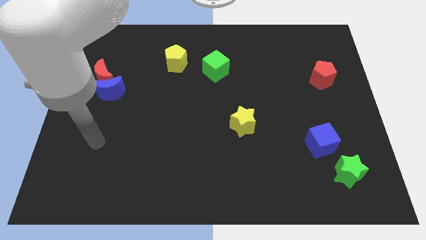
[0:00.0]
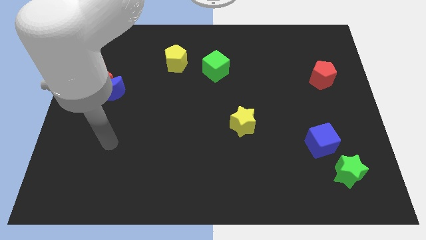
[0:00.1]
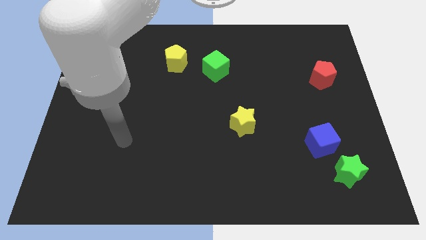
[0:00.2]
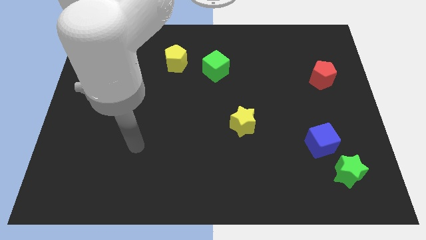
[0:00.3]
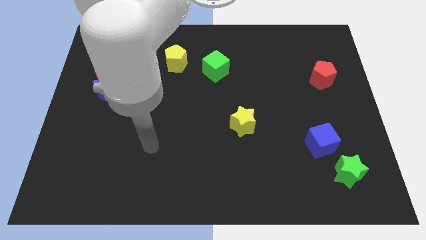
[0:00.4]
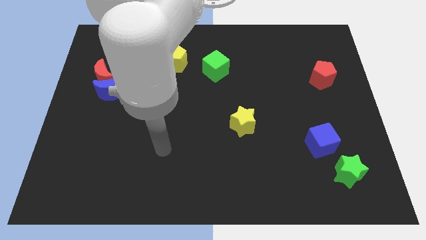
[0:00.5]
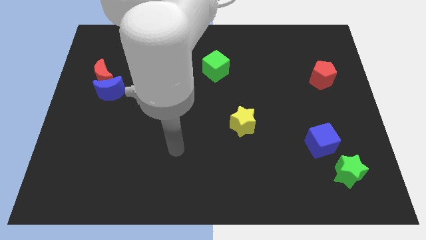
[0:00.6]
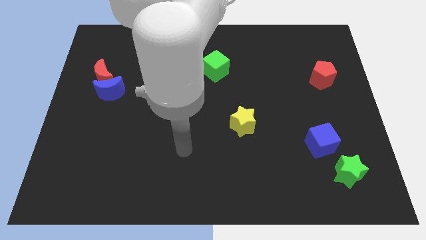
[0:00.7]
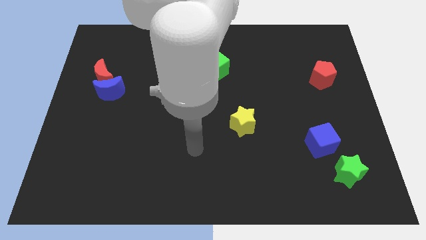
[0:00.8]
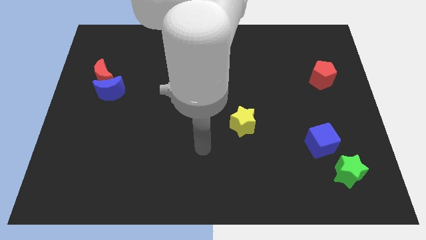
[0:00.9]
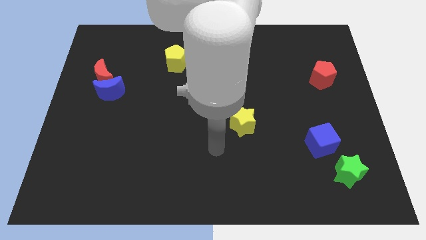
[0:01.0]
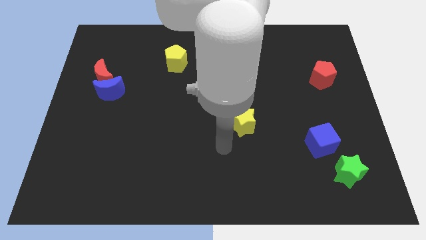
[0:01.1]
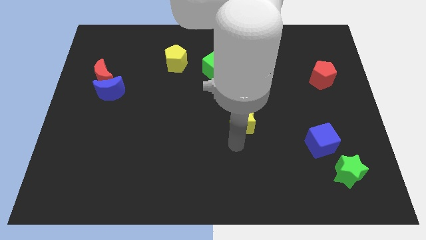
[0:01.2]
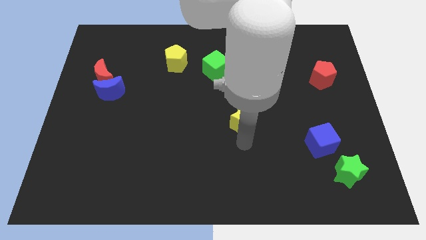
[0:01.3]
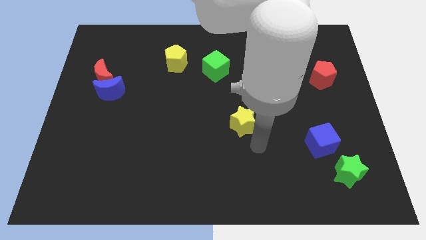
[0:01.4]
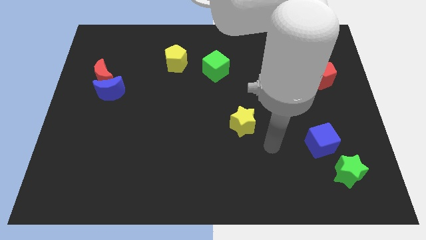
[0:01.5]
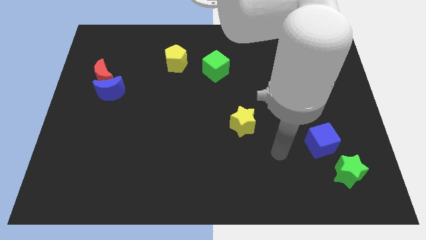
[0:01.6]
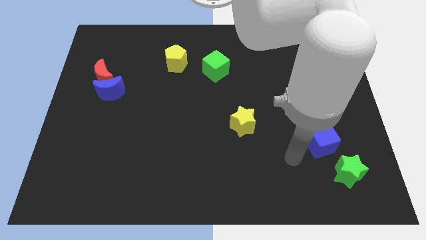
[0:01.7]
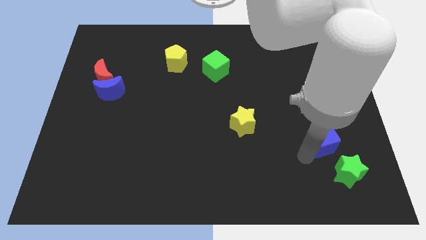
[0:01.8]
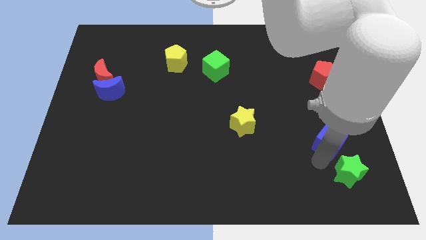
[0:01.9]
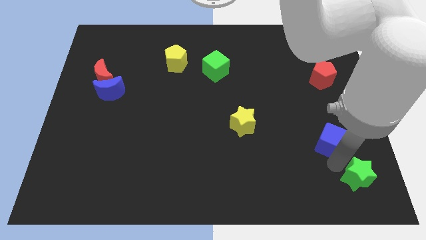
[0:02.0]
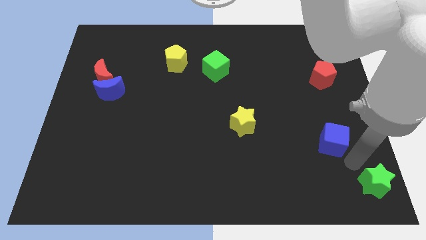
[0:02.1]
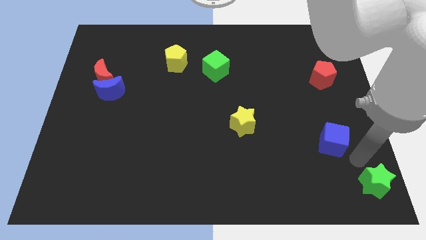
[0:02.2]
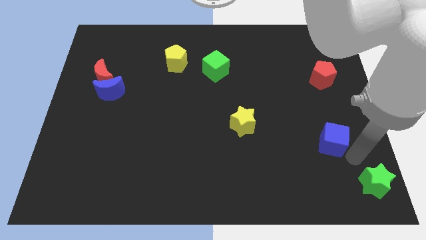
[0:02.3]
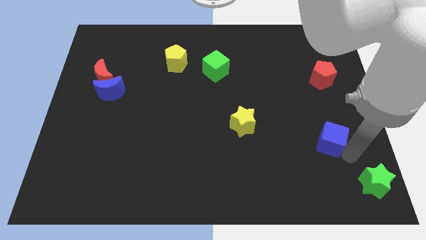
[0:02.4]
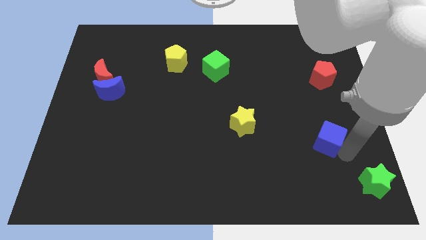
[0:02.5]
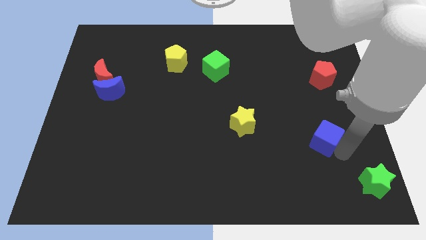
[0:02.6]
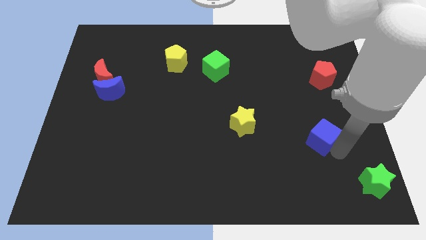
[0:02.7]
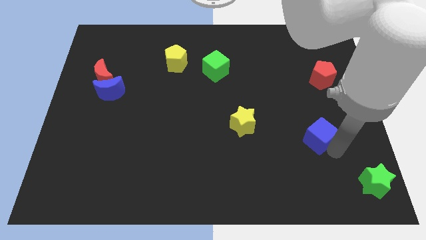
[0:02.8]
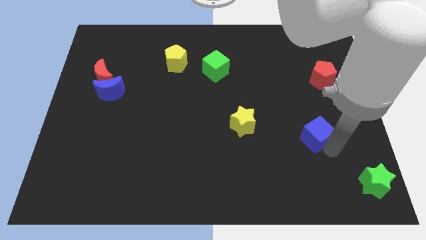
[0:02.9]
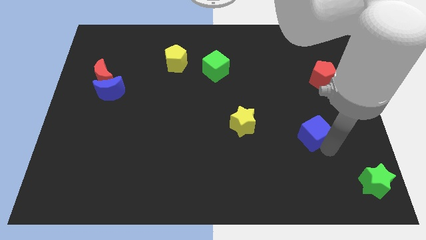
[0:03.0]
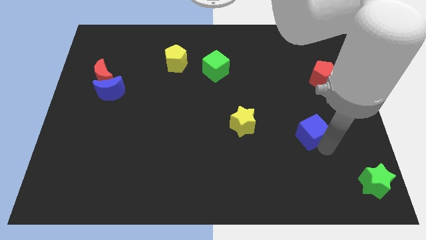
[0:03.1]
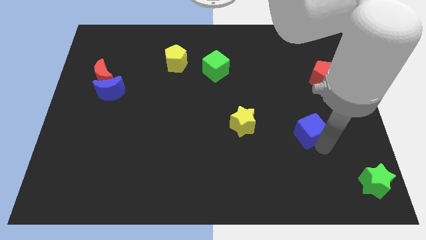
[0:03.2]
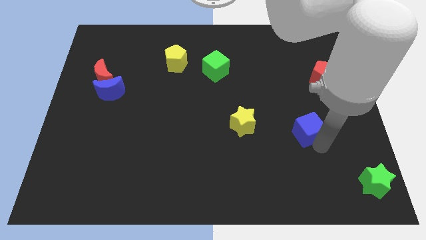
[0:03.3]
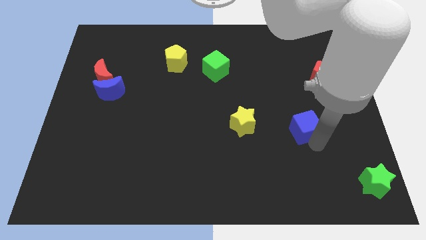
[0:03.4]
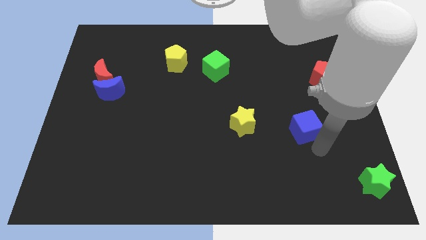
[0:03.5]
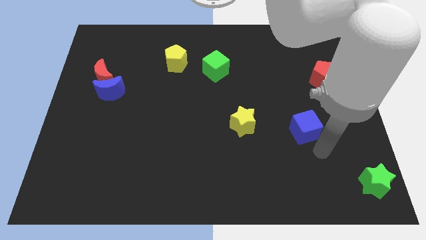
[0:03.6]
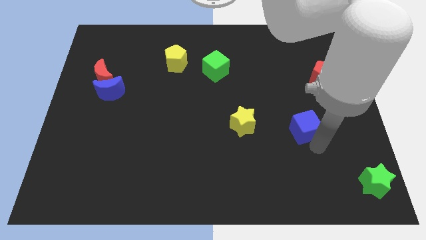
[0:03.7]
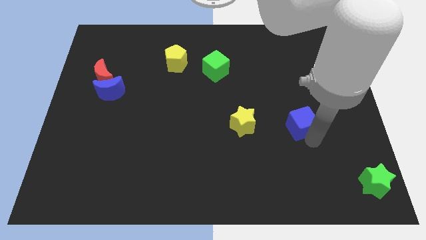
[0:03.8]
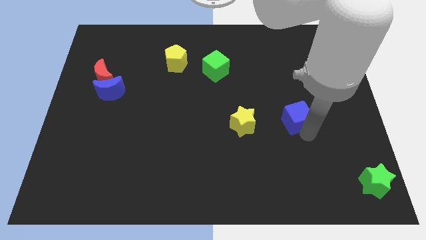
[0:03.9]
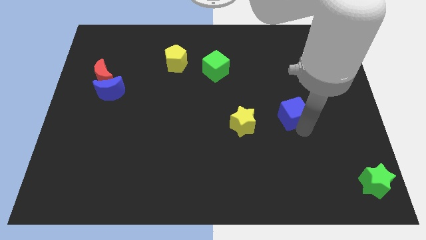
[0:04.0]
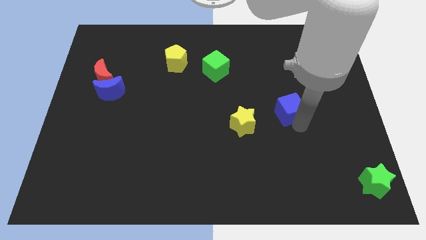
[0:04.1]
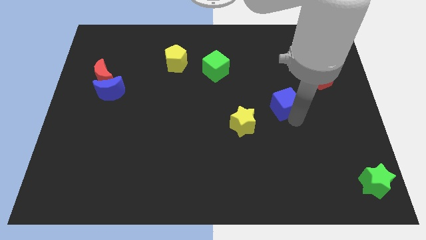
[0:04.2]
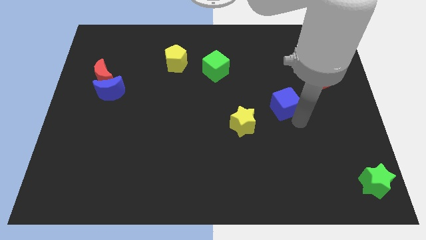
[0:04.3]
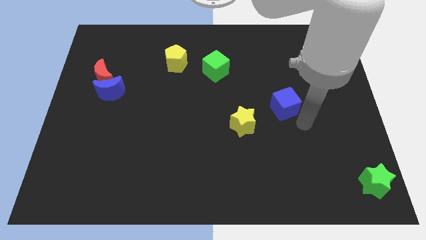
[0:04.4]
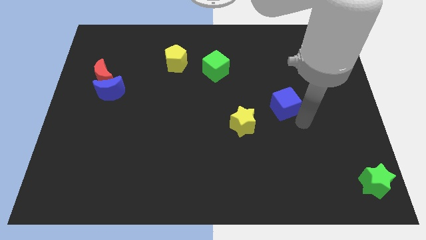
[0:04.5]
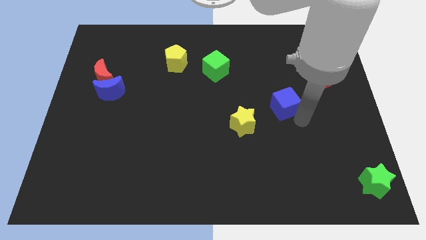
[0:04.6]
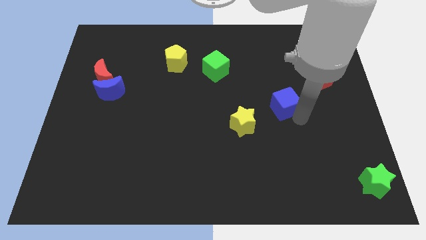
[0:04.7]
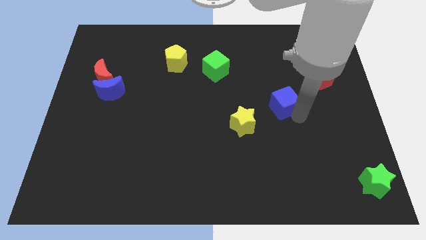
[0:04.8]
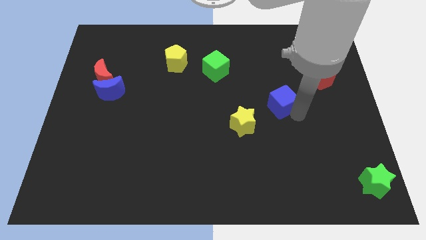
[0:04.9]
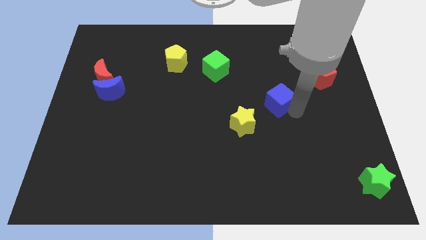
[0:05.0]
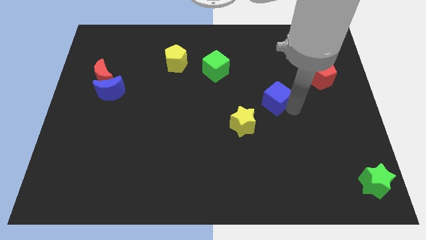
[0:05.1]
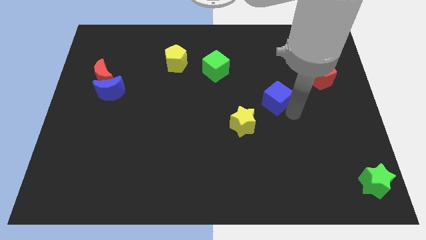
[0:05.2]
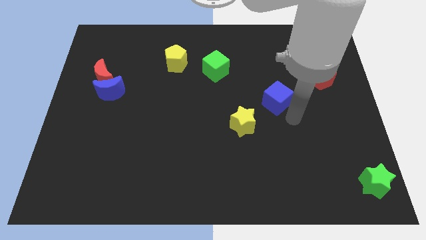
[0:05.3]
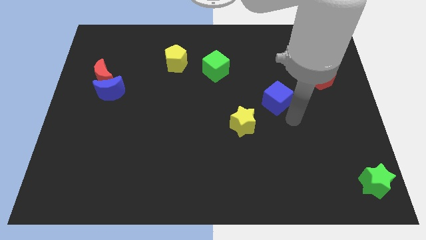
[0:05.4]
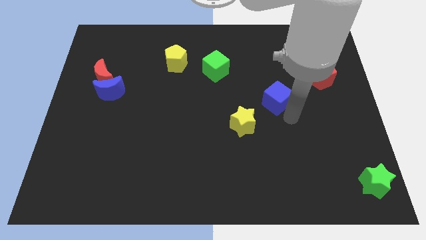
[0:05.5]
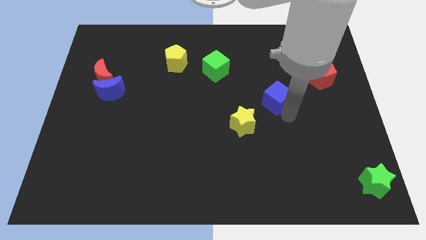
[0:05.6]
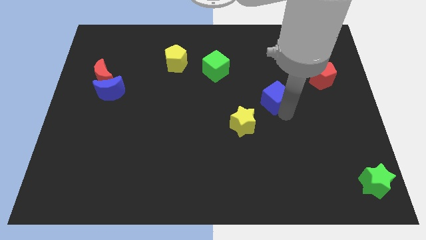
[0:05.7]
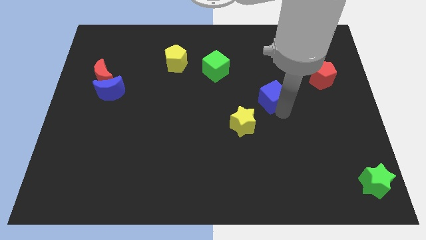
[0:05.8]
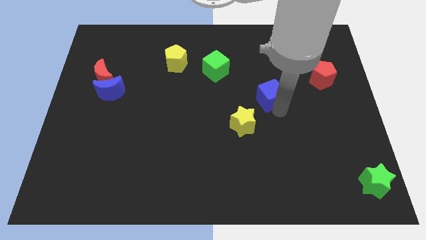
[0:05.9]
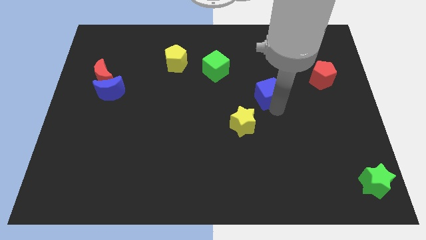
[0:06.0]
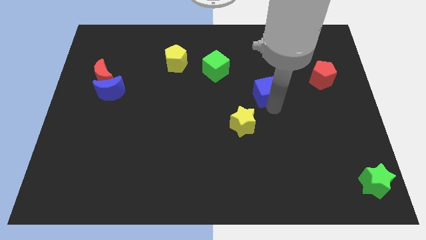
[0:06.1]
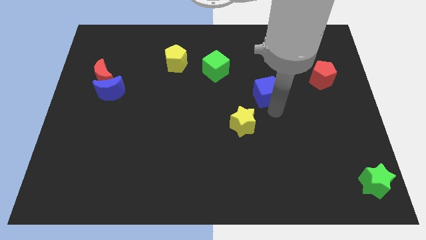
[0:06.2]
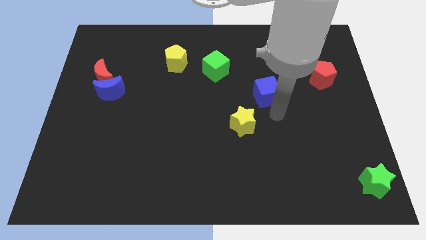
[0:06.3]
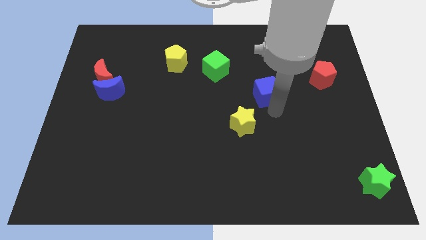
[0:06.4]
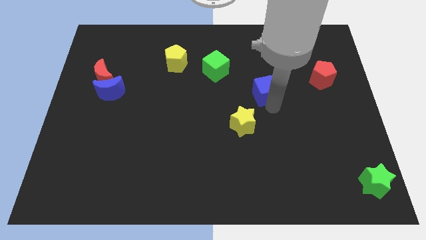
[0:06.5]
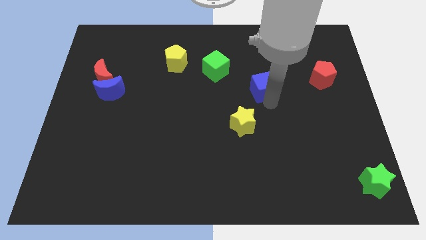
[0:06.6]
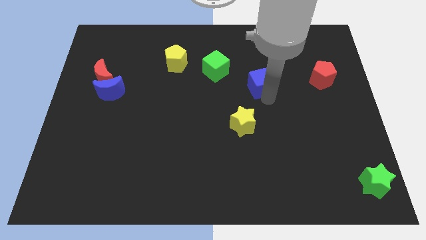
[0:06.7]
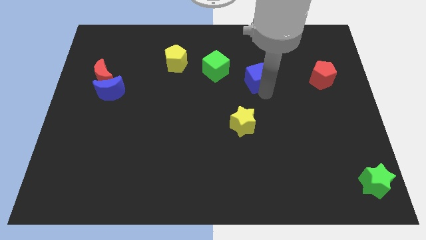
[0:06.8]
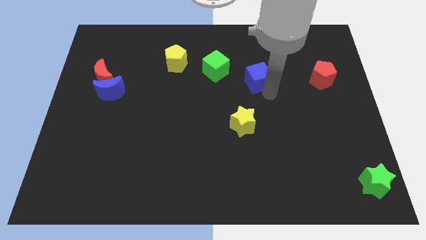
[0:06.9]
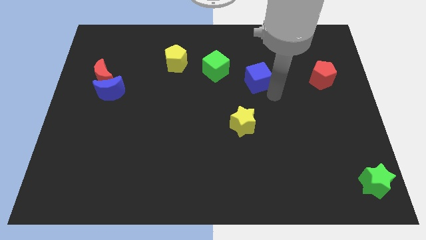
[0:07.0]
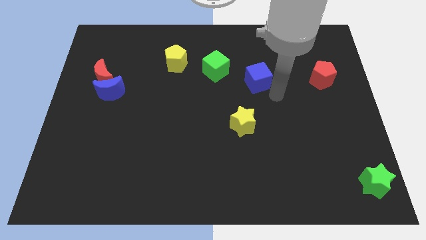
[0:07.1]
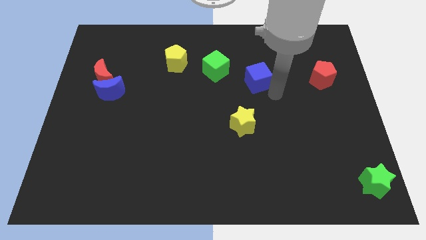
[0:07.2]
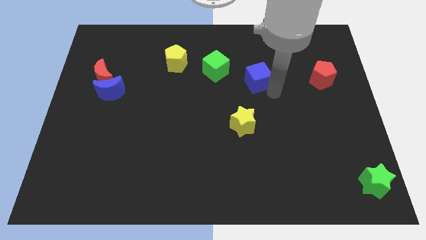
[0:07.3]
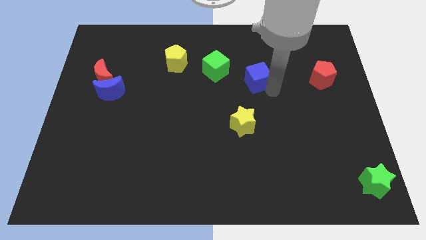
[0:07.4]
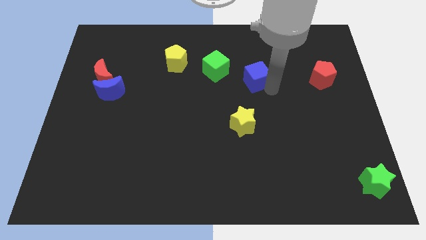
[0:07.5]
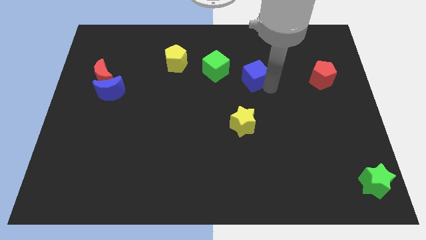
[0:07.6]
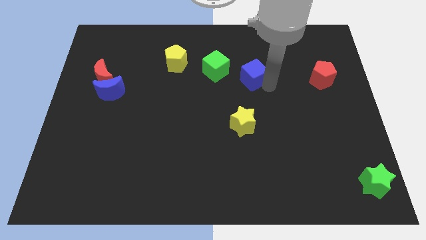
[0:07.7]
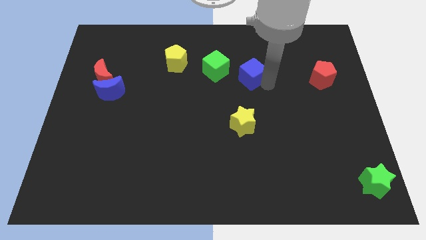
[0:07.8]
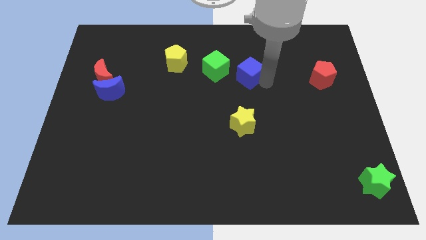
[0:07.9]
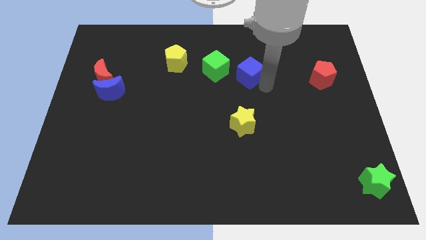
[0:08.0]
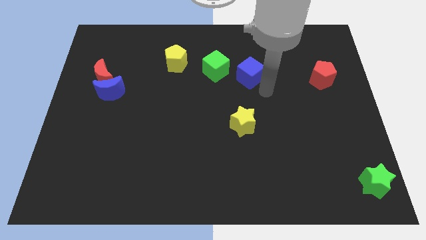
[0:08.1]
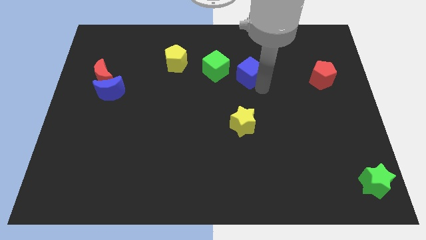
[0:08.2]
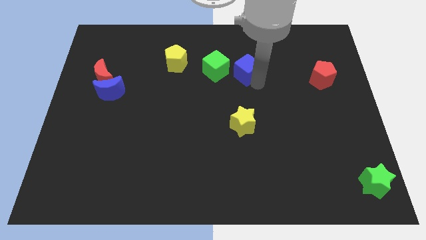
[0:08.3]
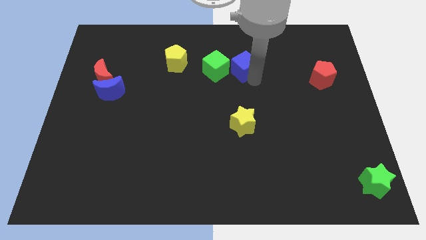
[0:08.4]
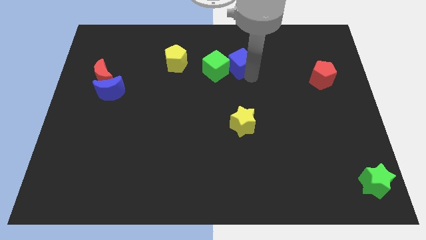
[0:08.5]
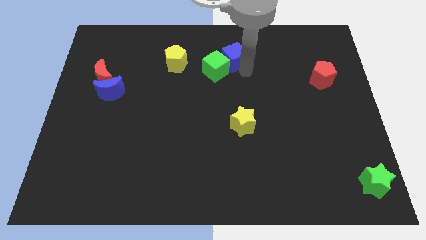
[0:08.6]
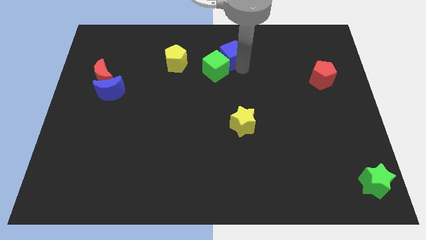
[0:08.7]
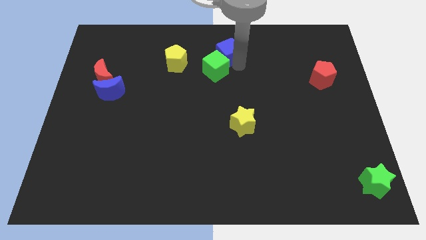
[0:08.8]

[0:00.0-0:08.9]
put the blue cube to the towards your base
